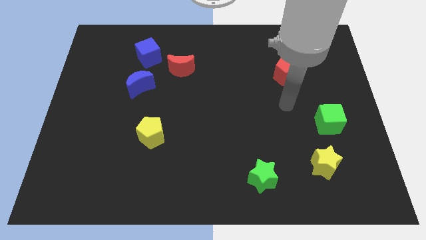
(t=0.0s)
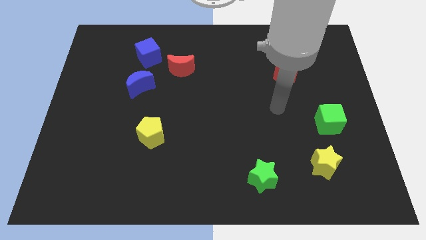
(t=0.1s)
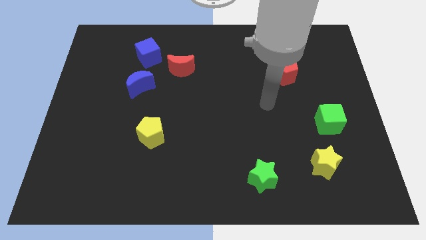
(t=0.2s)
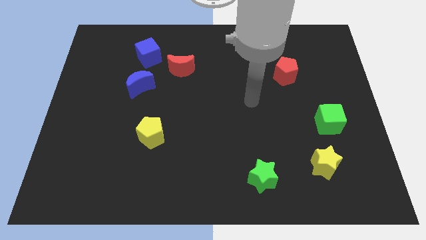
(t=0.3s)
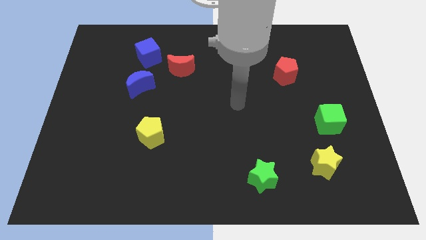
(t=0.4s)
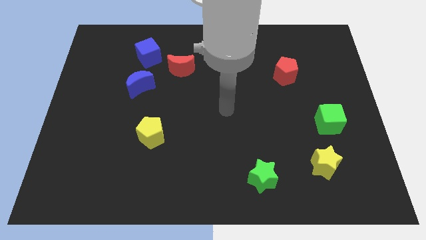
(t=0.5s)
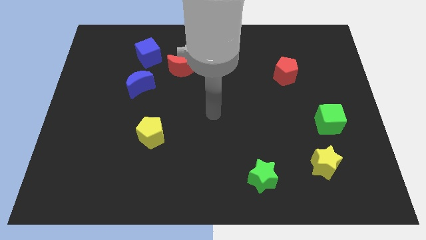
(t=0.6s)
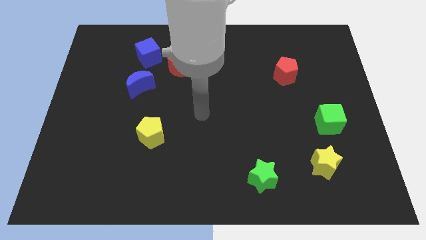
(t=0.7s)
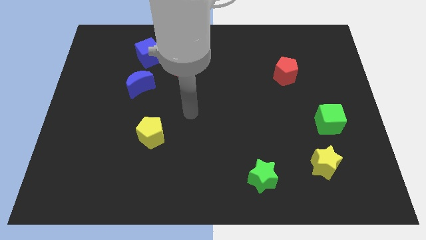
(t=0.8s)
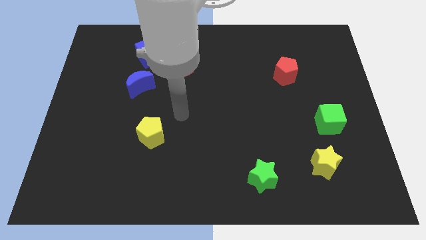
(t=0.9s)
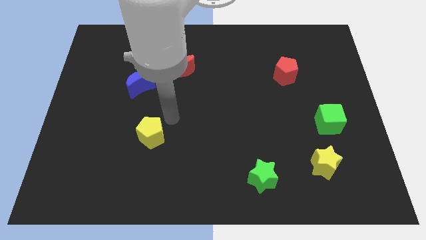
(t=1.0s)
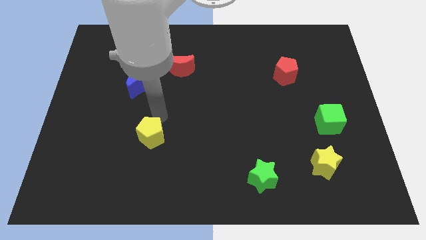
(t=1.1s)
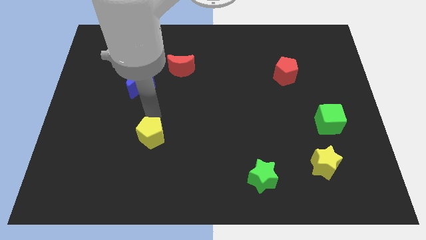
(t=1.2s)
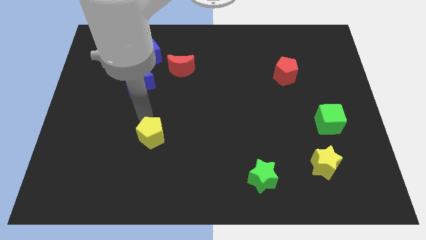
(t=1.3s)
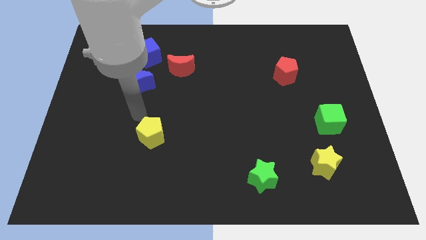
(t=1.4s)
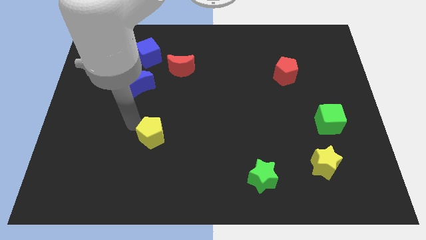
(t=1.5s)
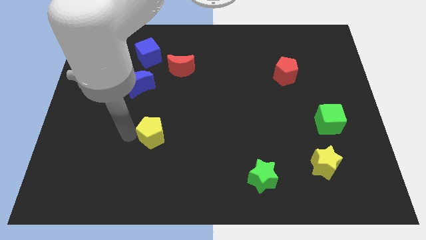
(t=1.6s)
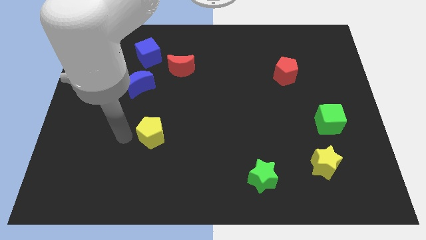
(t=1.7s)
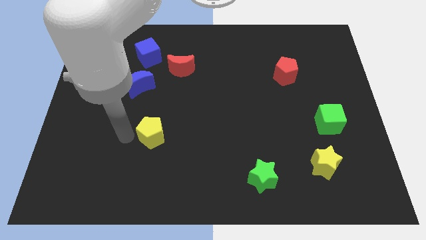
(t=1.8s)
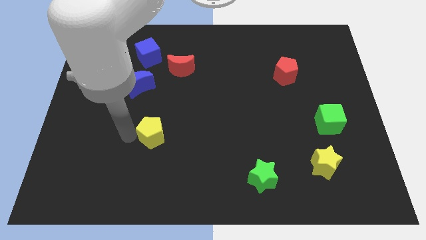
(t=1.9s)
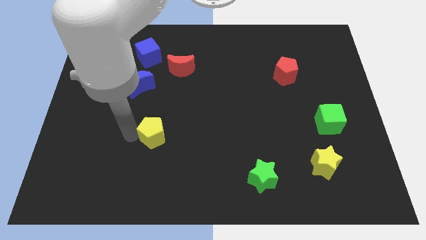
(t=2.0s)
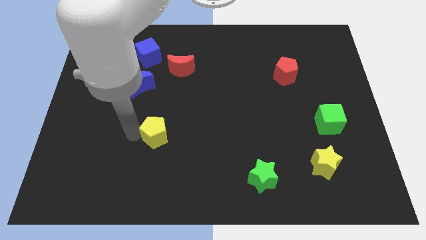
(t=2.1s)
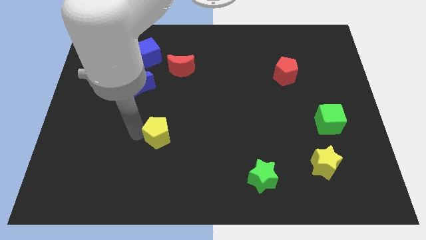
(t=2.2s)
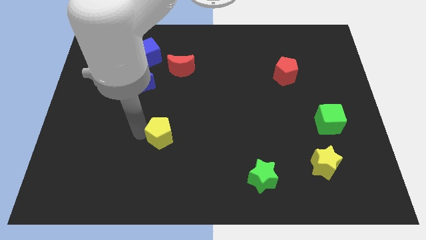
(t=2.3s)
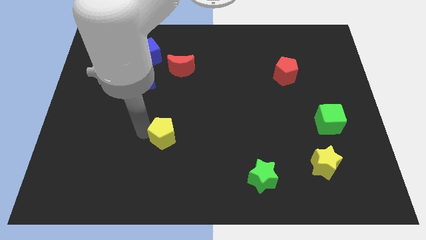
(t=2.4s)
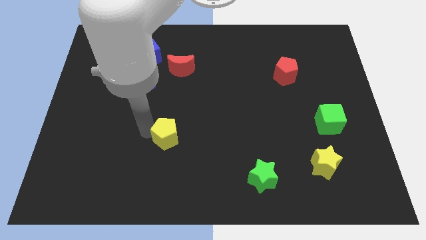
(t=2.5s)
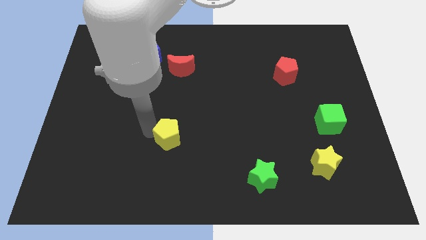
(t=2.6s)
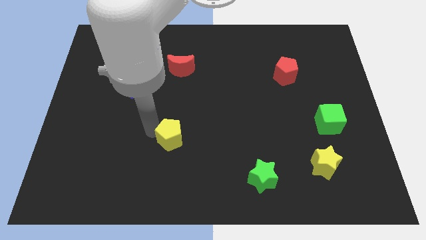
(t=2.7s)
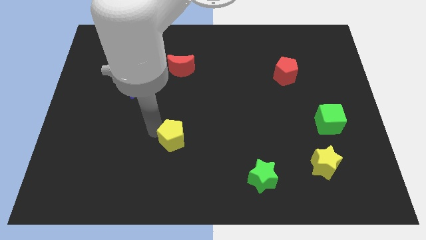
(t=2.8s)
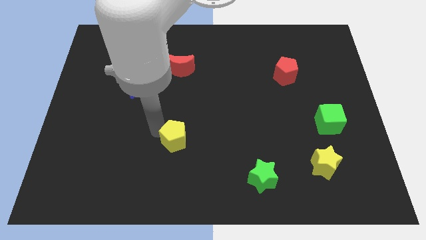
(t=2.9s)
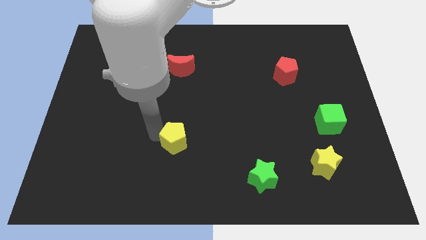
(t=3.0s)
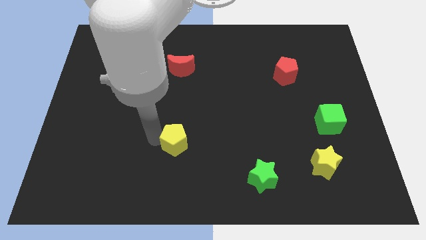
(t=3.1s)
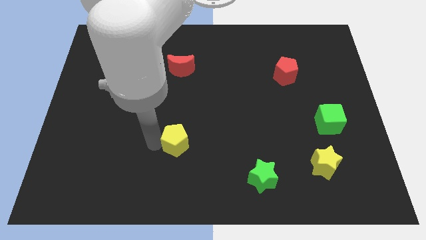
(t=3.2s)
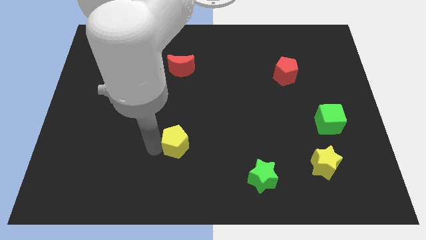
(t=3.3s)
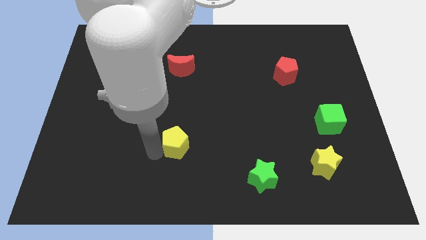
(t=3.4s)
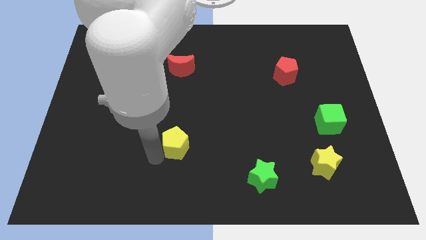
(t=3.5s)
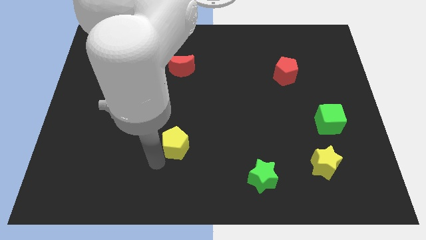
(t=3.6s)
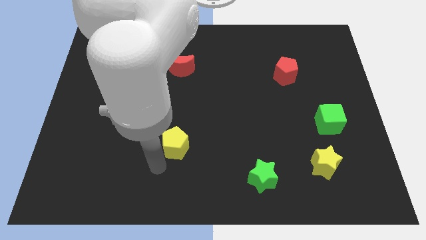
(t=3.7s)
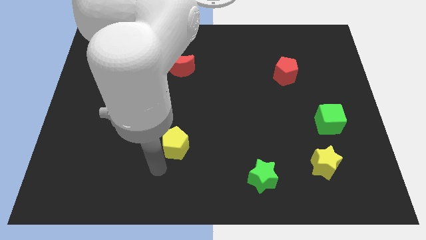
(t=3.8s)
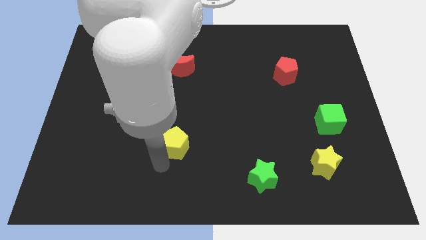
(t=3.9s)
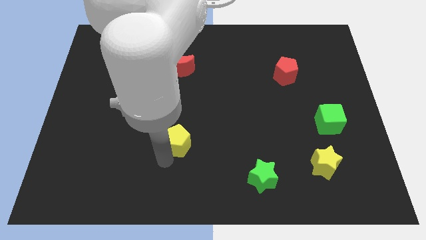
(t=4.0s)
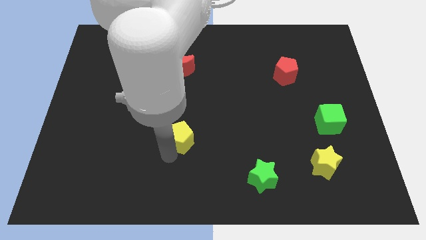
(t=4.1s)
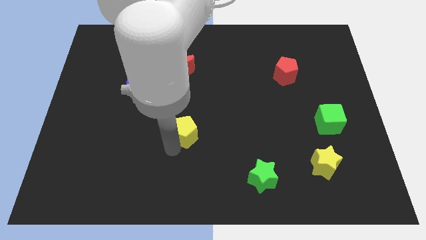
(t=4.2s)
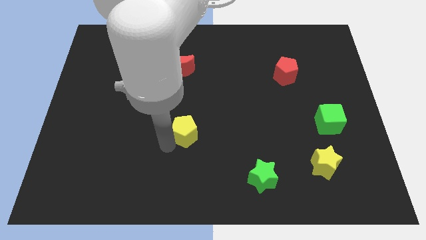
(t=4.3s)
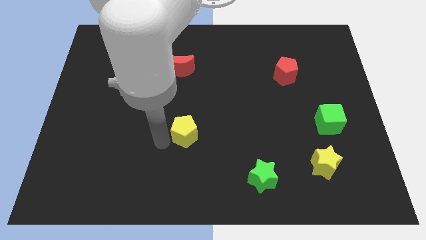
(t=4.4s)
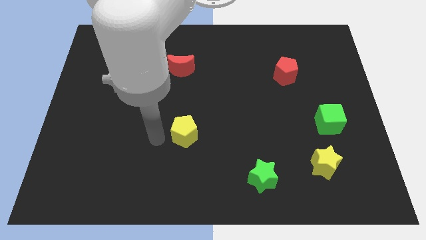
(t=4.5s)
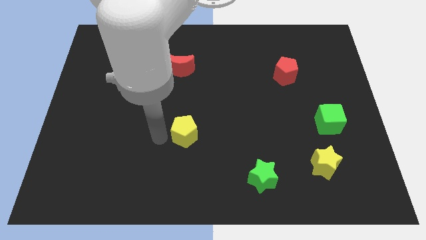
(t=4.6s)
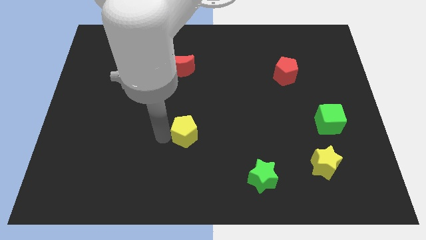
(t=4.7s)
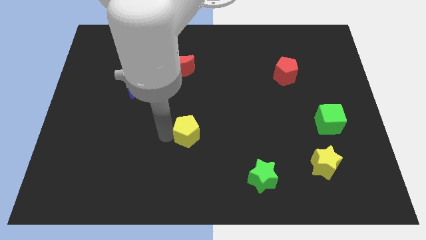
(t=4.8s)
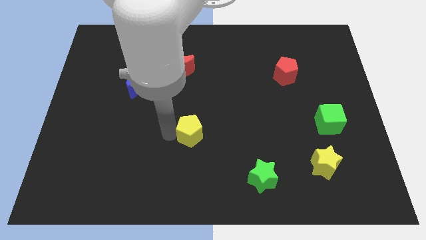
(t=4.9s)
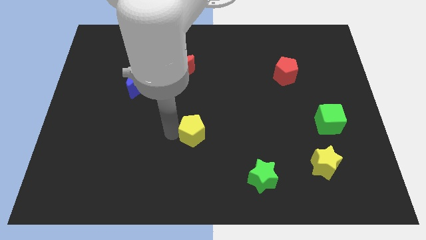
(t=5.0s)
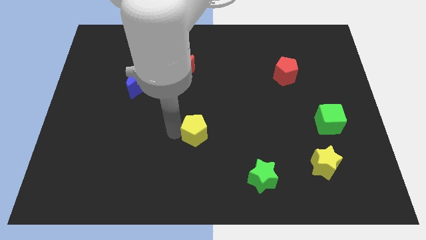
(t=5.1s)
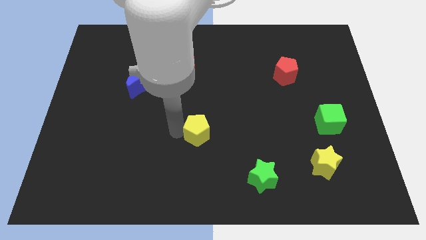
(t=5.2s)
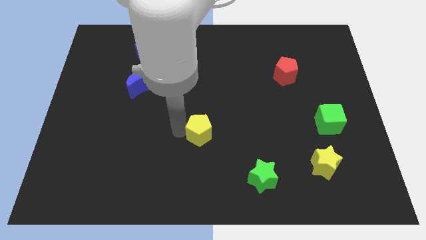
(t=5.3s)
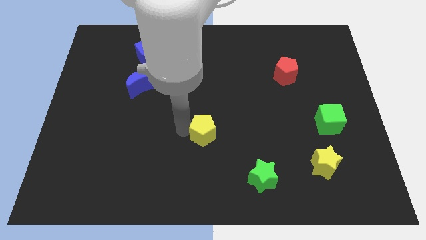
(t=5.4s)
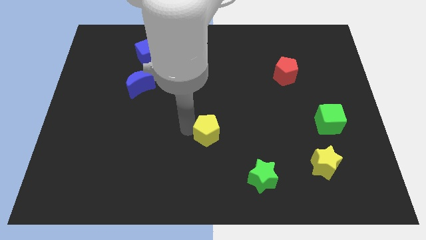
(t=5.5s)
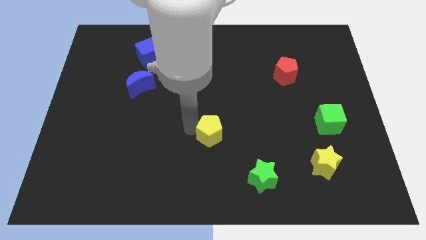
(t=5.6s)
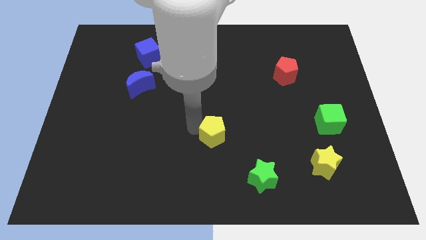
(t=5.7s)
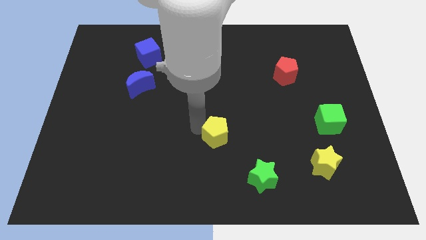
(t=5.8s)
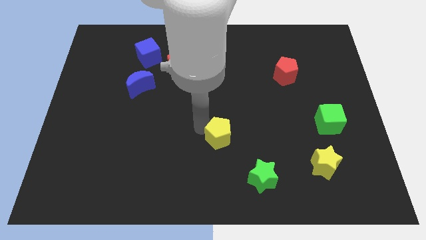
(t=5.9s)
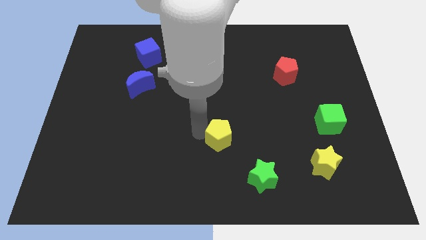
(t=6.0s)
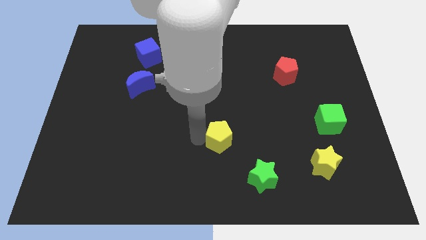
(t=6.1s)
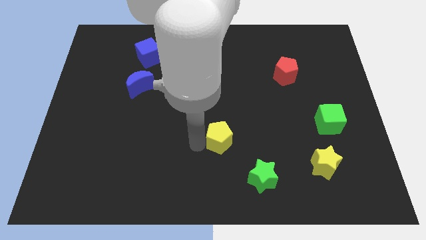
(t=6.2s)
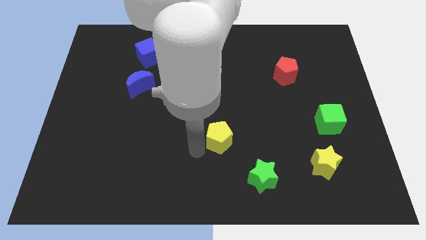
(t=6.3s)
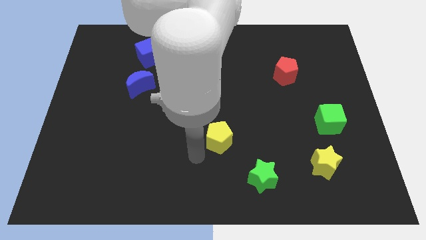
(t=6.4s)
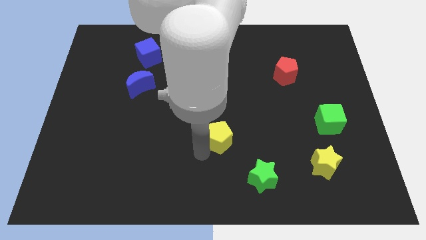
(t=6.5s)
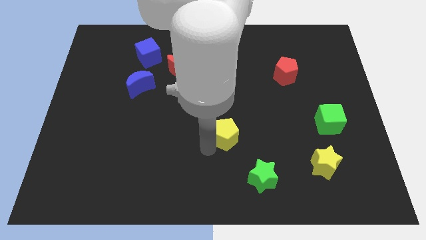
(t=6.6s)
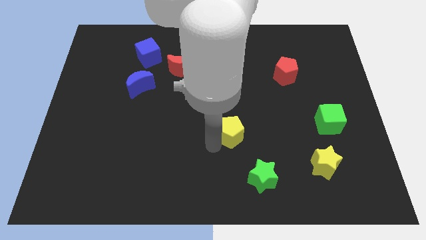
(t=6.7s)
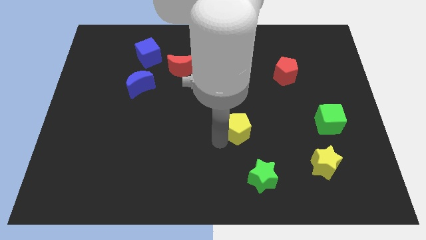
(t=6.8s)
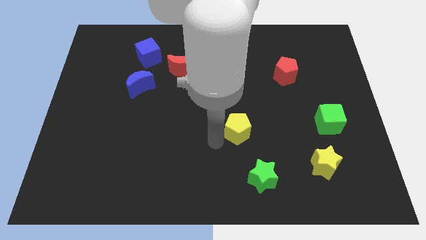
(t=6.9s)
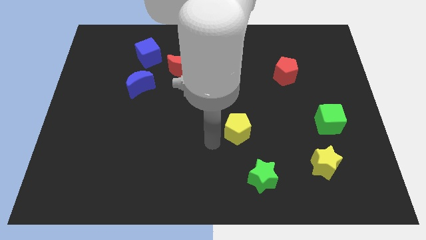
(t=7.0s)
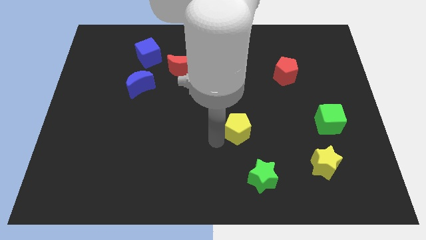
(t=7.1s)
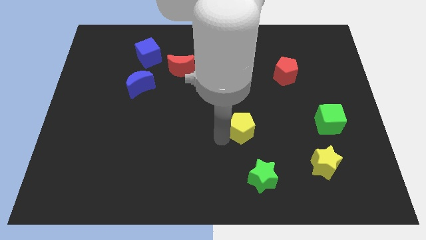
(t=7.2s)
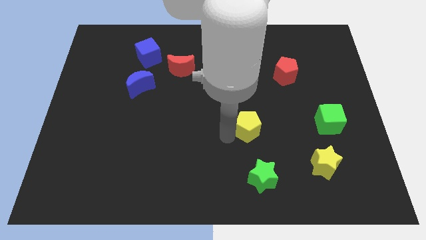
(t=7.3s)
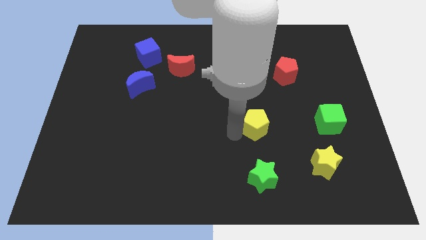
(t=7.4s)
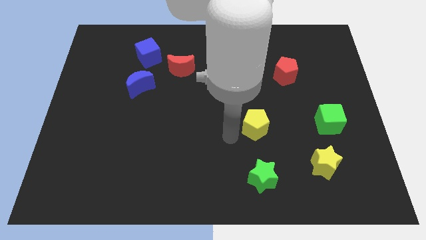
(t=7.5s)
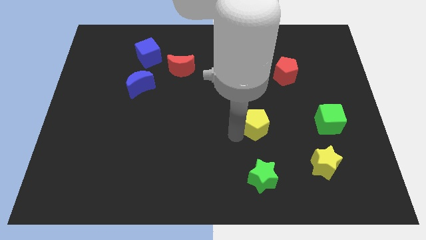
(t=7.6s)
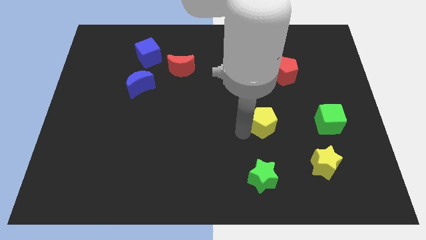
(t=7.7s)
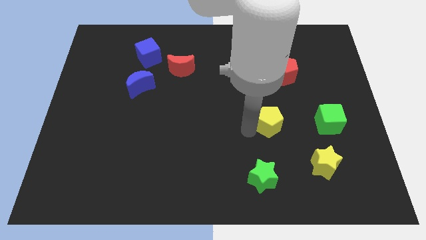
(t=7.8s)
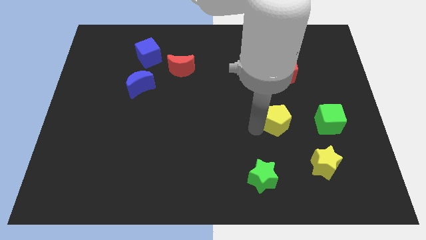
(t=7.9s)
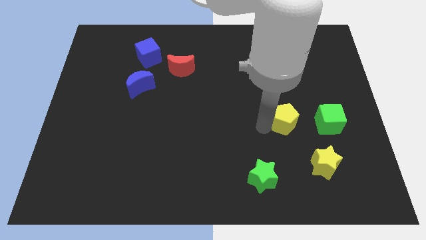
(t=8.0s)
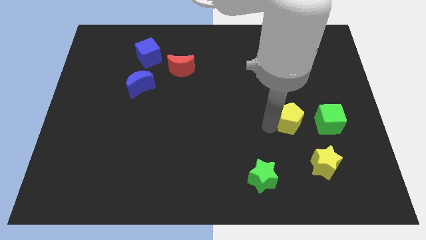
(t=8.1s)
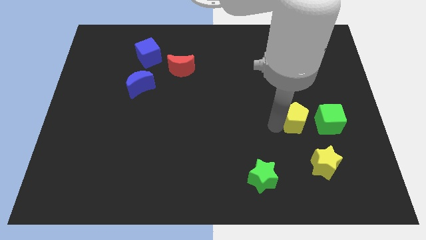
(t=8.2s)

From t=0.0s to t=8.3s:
move the yellow pentagon above the yellow star
